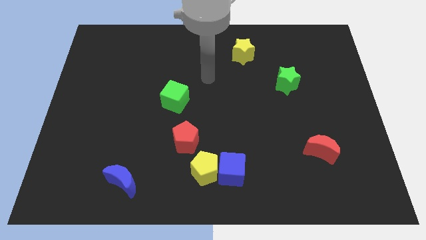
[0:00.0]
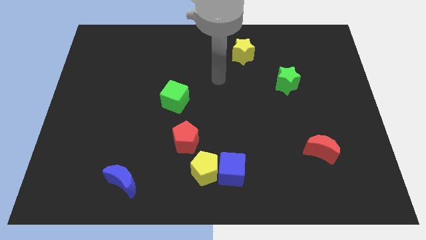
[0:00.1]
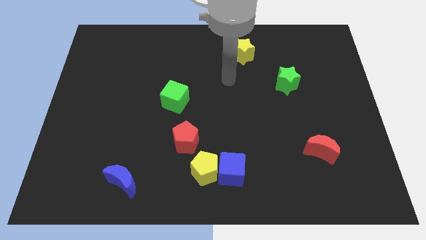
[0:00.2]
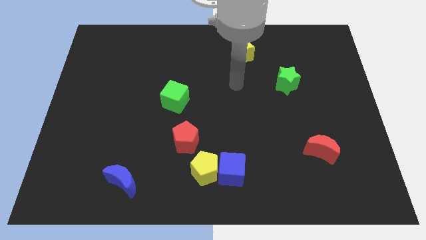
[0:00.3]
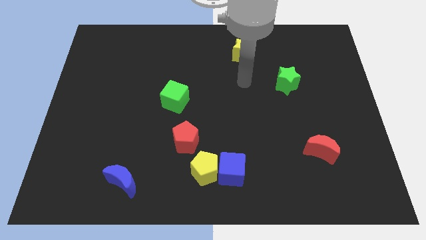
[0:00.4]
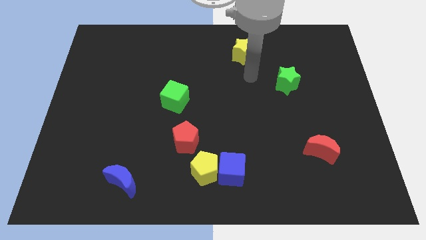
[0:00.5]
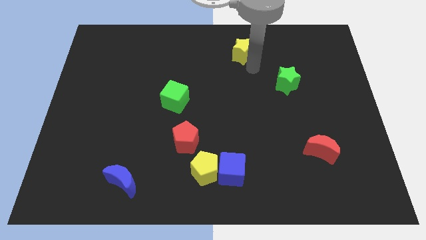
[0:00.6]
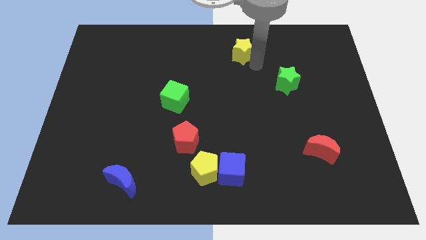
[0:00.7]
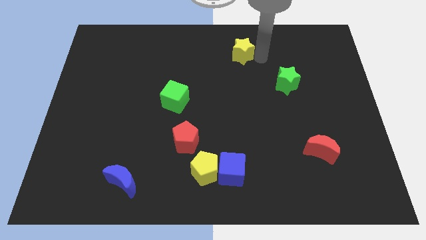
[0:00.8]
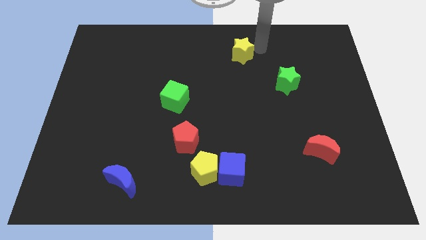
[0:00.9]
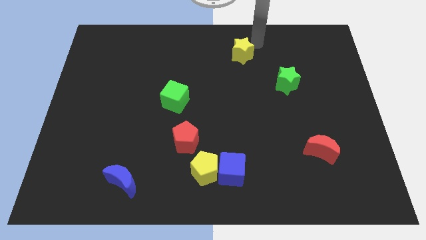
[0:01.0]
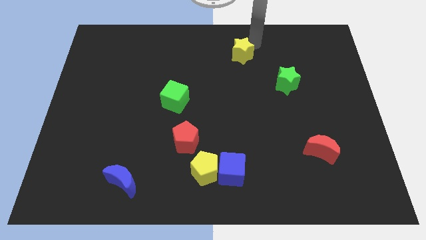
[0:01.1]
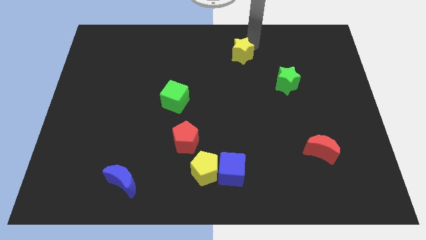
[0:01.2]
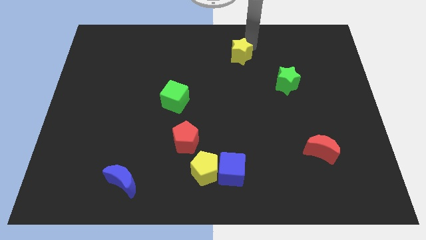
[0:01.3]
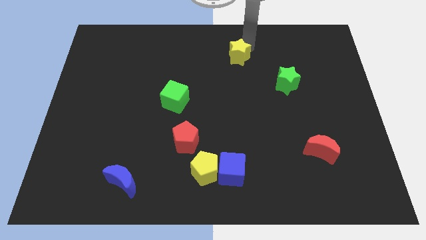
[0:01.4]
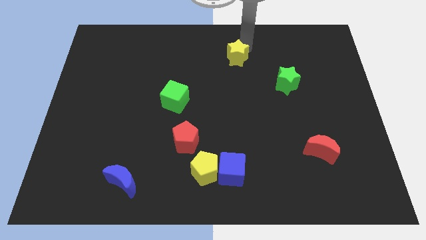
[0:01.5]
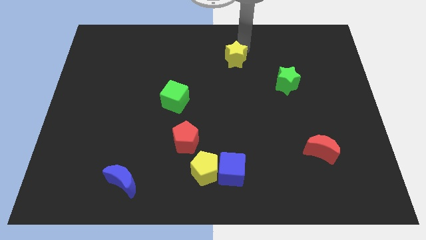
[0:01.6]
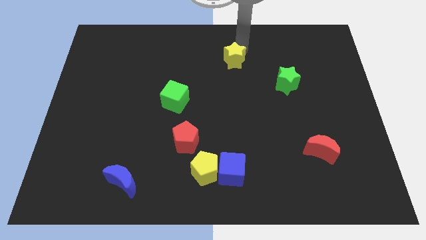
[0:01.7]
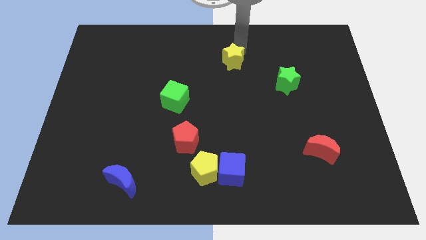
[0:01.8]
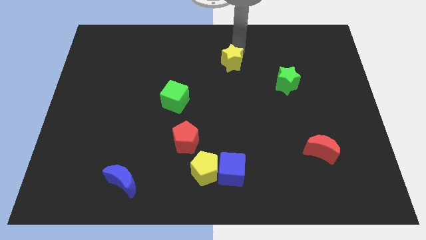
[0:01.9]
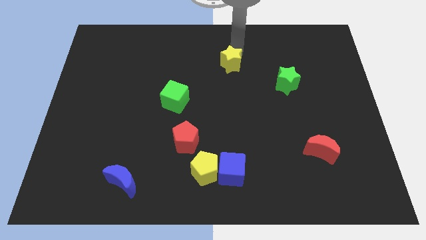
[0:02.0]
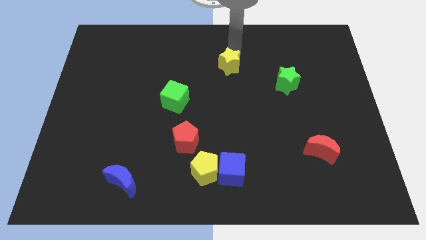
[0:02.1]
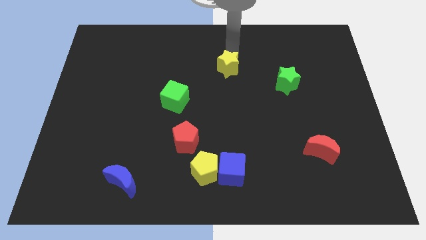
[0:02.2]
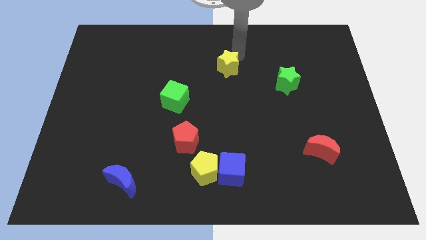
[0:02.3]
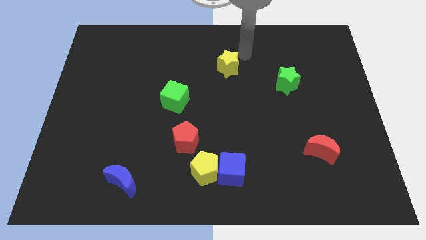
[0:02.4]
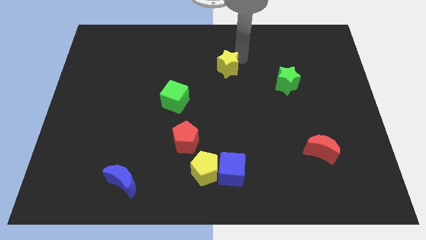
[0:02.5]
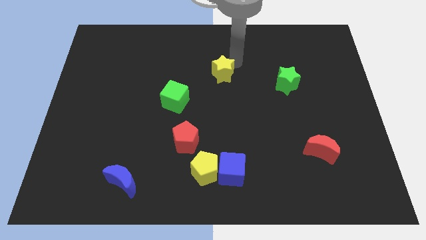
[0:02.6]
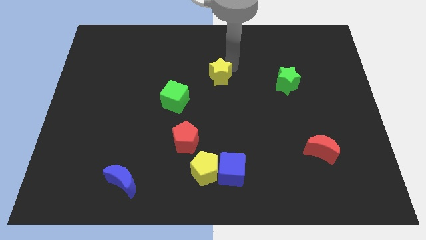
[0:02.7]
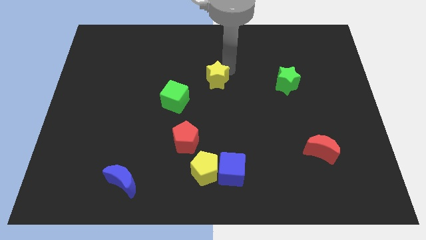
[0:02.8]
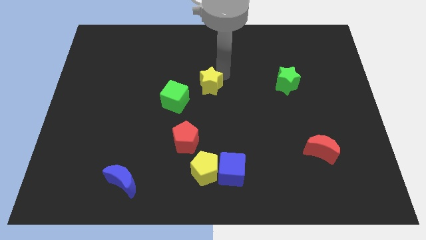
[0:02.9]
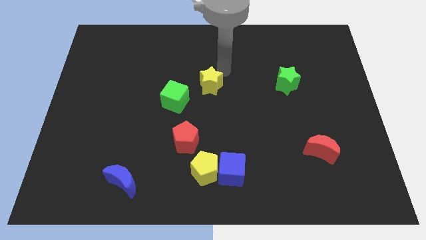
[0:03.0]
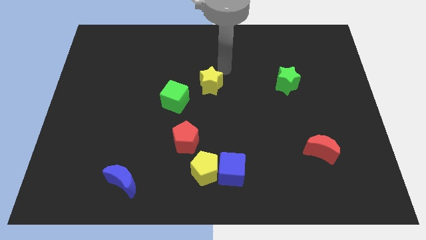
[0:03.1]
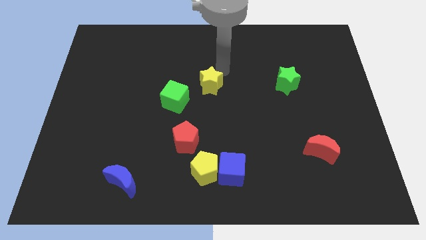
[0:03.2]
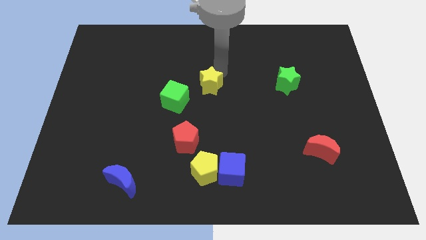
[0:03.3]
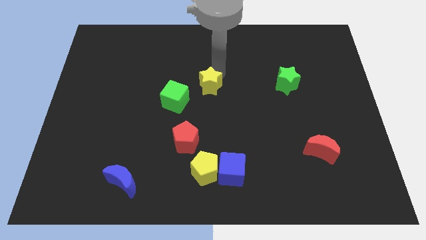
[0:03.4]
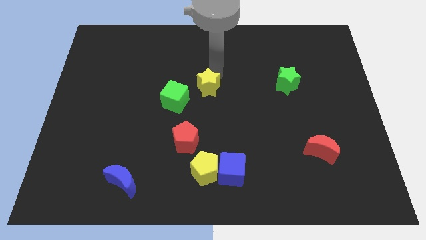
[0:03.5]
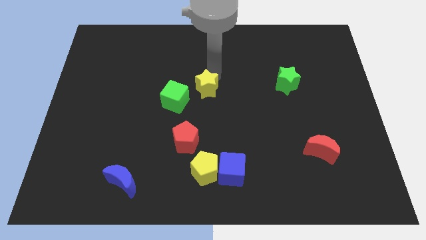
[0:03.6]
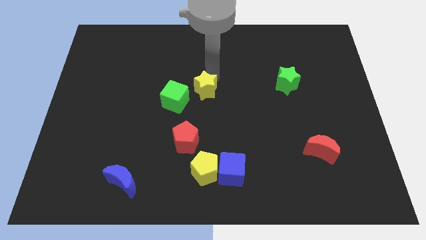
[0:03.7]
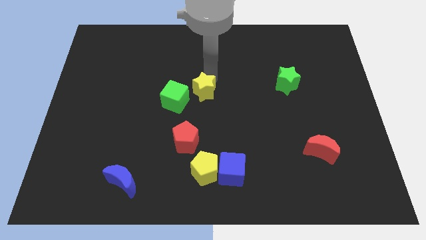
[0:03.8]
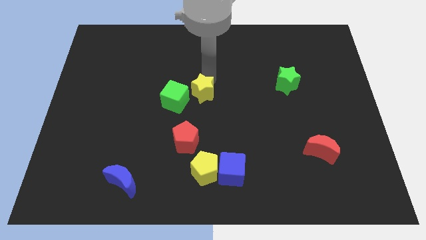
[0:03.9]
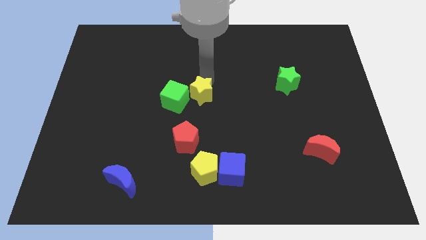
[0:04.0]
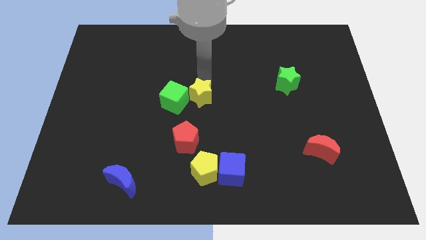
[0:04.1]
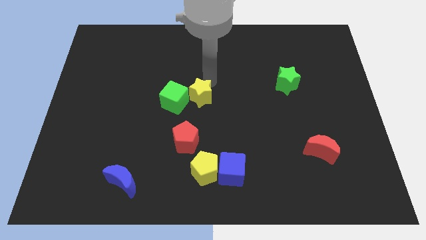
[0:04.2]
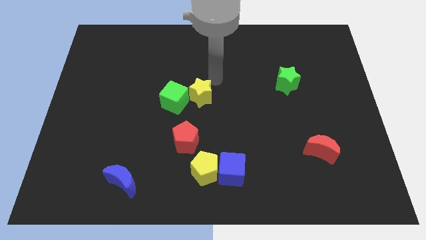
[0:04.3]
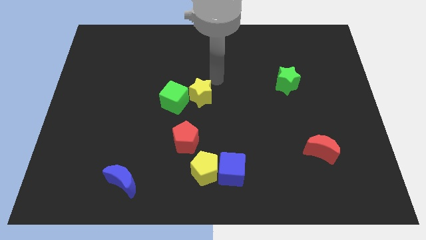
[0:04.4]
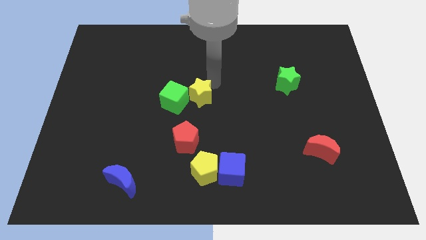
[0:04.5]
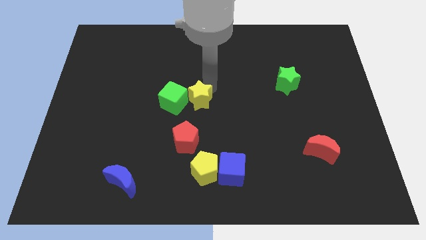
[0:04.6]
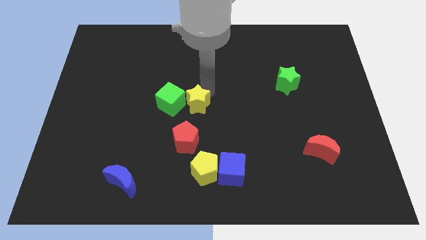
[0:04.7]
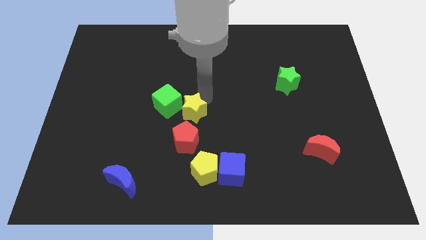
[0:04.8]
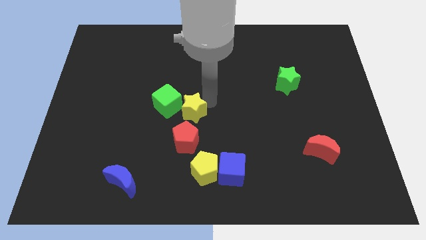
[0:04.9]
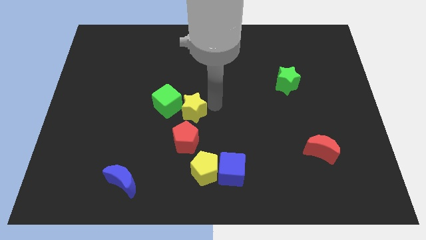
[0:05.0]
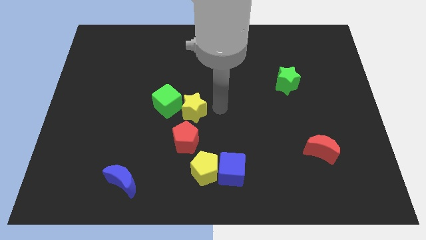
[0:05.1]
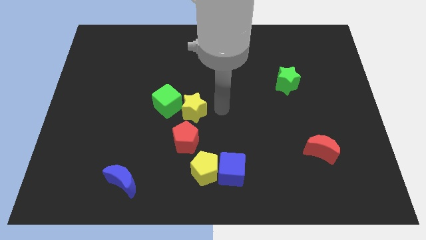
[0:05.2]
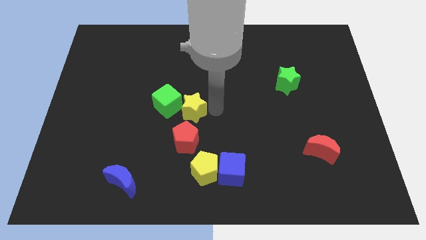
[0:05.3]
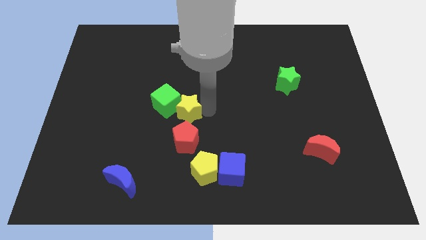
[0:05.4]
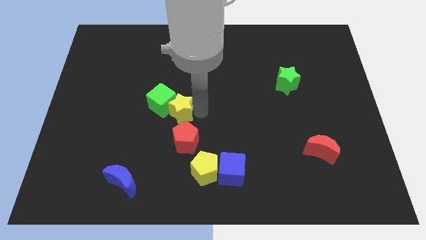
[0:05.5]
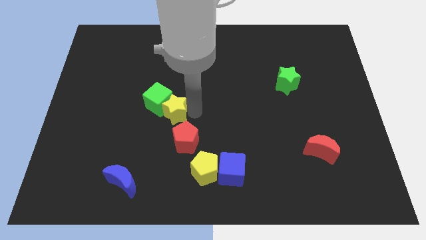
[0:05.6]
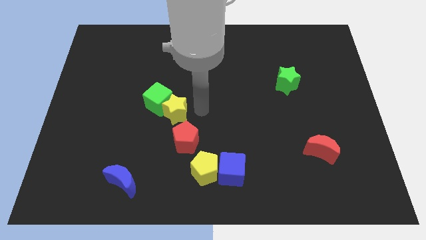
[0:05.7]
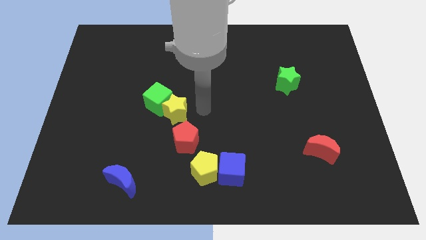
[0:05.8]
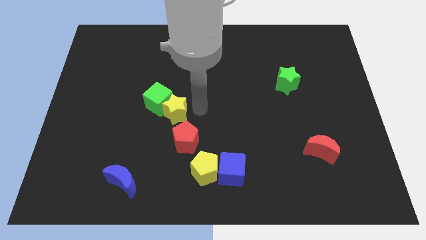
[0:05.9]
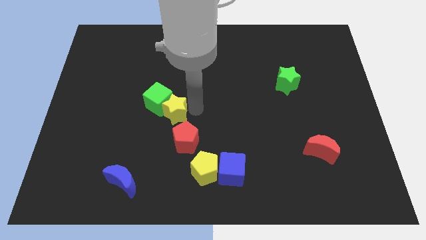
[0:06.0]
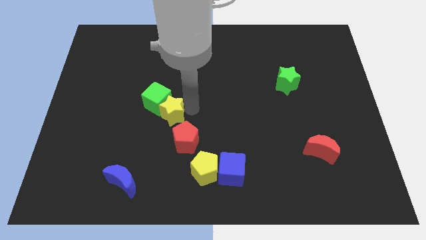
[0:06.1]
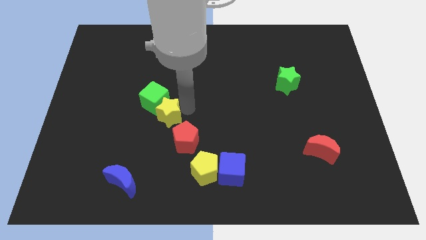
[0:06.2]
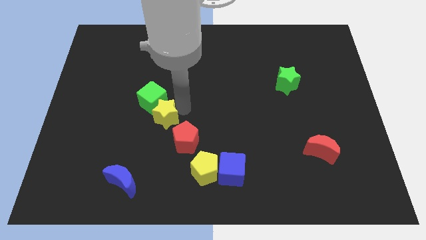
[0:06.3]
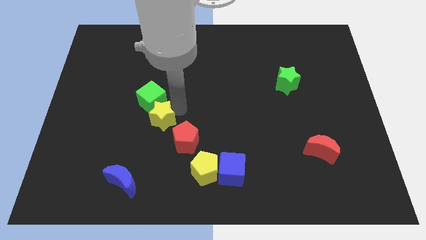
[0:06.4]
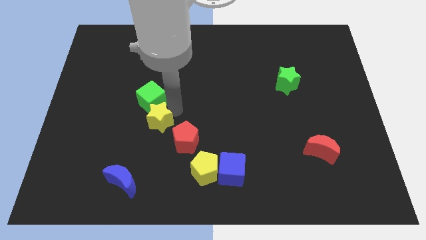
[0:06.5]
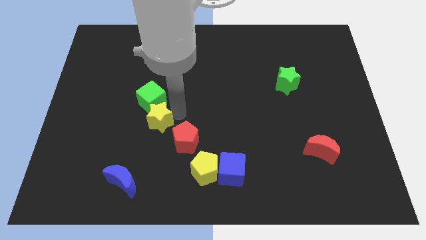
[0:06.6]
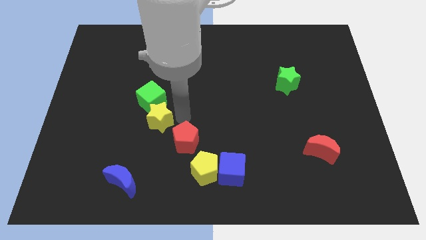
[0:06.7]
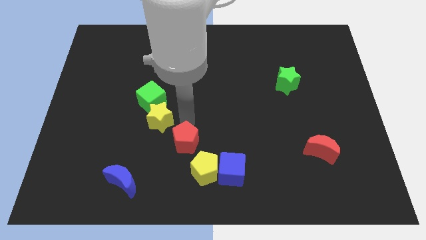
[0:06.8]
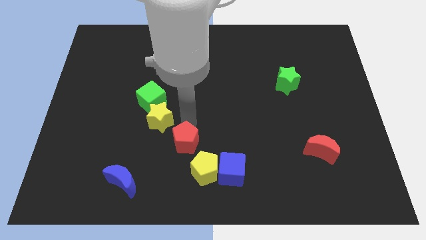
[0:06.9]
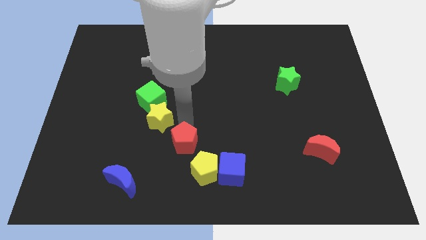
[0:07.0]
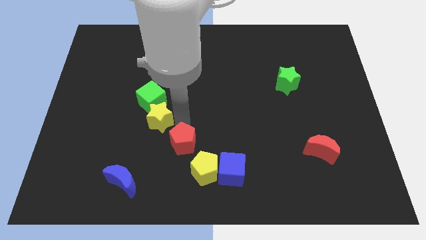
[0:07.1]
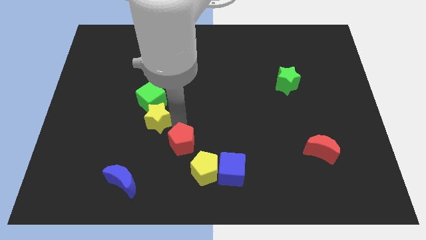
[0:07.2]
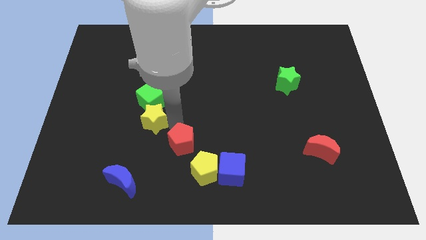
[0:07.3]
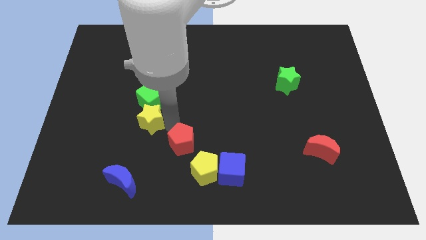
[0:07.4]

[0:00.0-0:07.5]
put the yellow star diagonally down and to the left of the green cube
